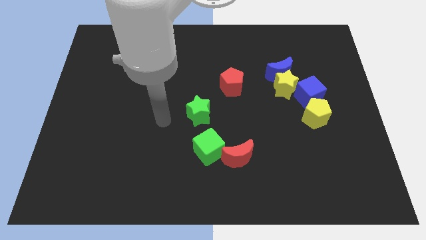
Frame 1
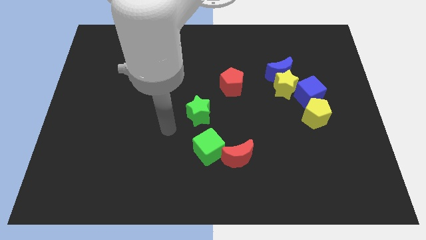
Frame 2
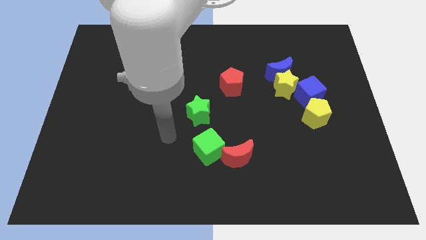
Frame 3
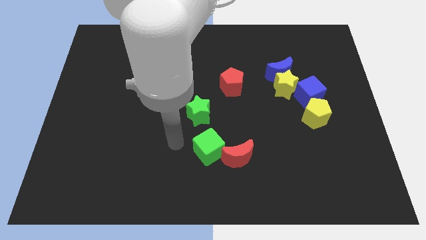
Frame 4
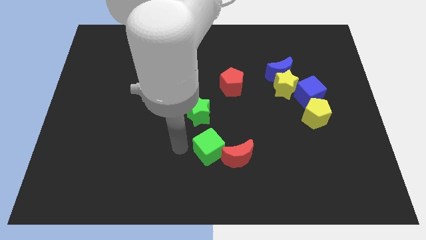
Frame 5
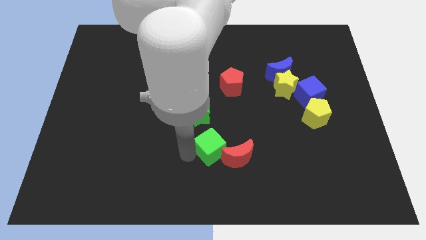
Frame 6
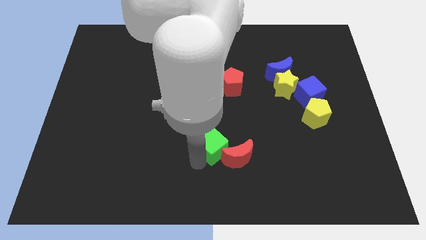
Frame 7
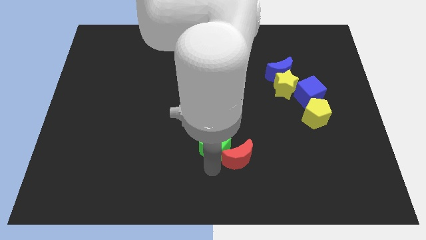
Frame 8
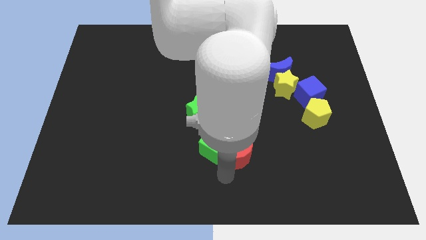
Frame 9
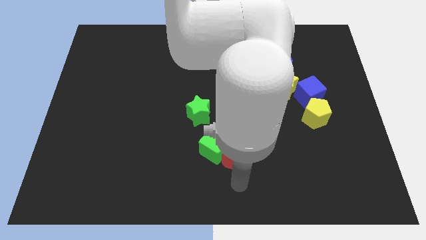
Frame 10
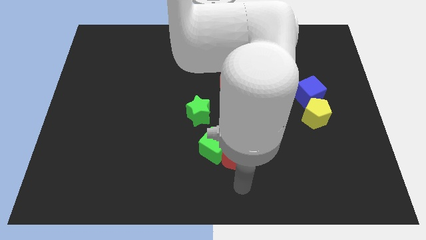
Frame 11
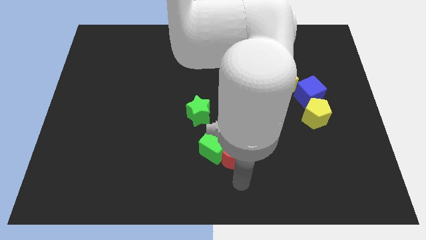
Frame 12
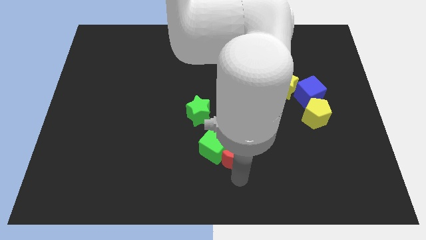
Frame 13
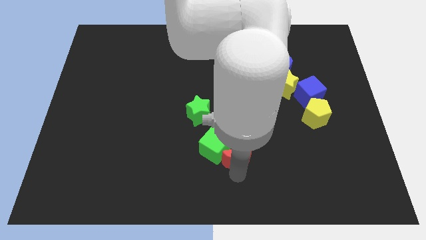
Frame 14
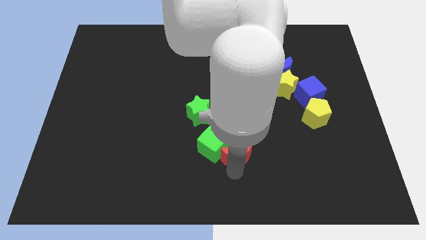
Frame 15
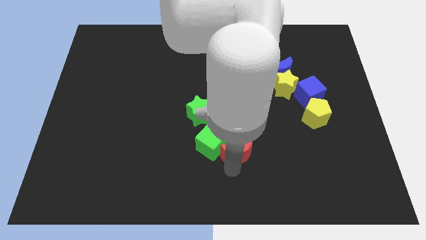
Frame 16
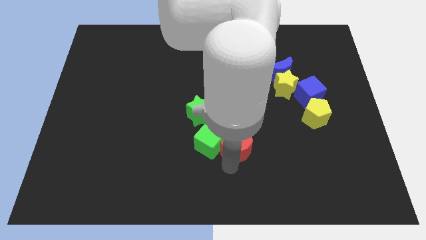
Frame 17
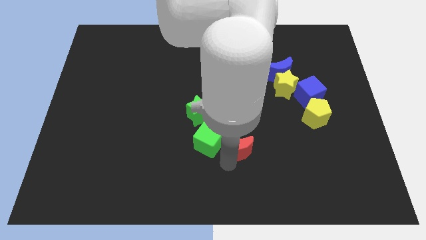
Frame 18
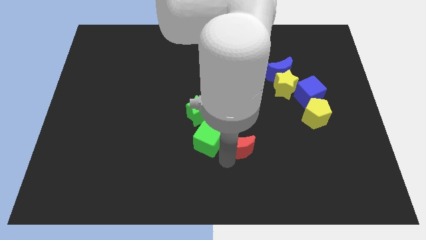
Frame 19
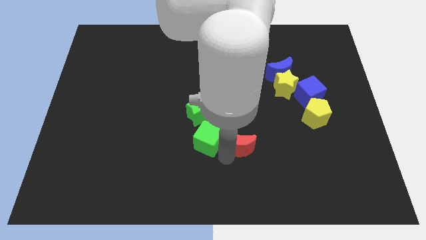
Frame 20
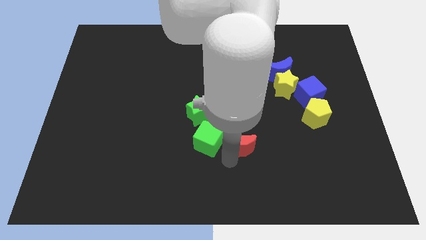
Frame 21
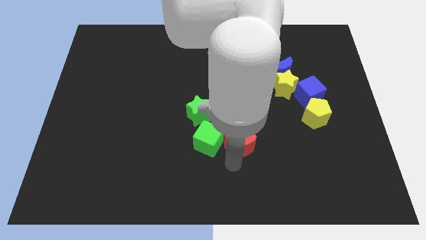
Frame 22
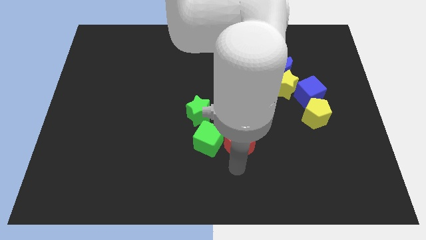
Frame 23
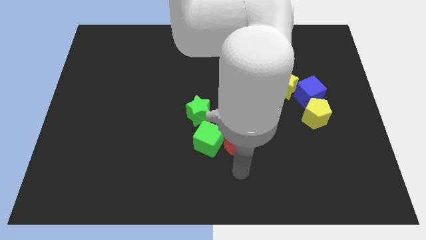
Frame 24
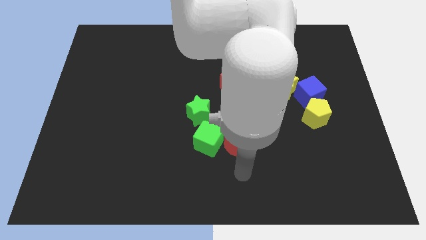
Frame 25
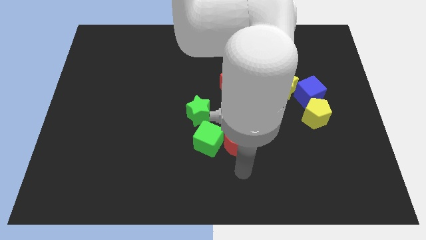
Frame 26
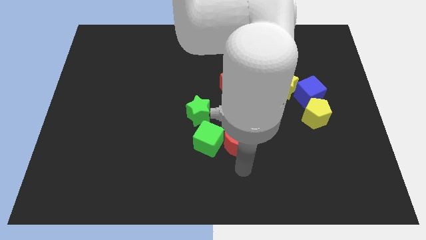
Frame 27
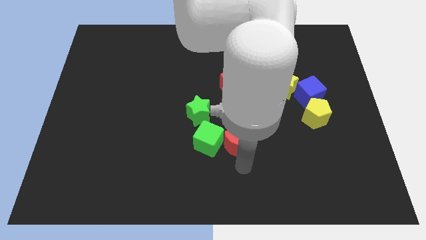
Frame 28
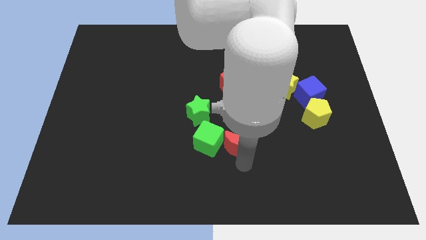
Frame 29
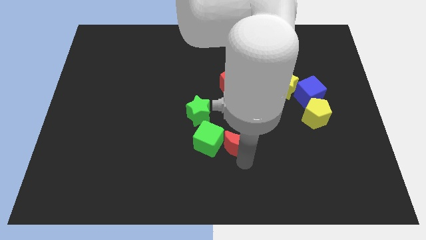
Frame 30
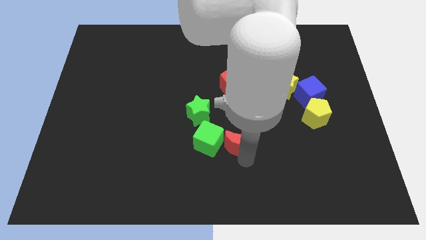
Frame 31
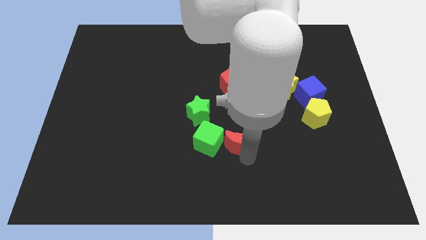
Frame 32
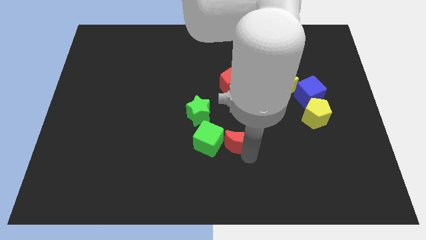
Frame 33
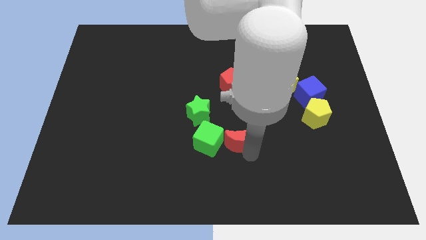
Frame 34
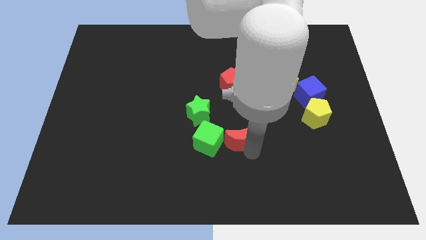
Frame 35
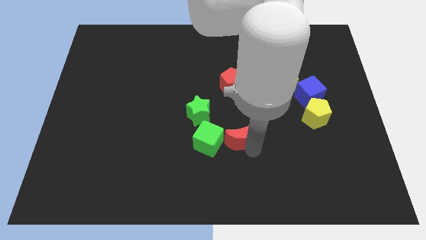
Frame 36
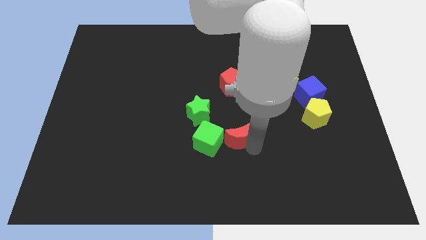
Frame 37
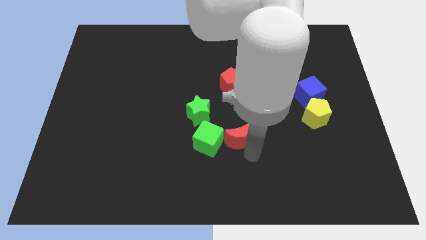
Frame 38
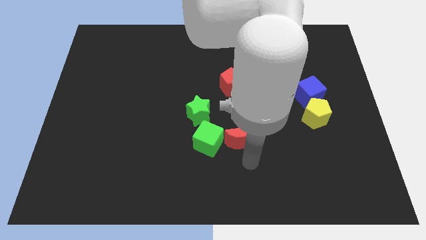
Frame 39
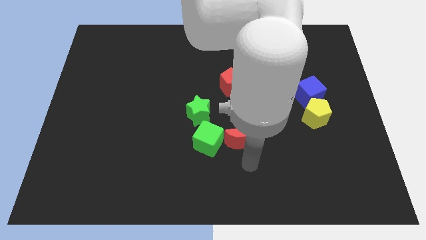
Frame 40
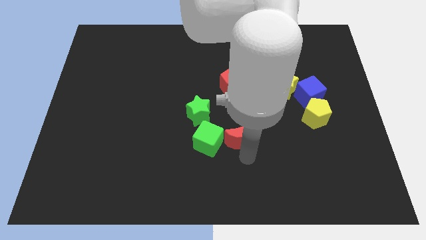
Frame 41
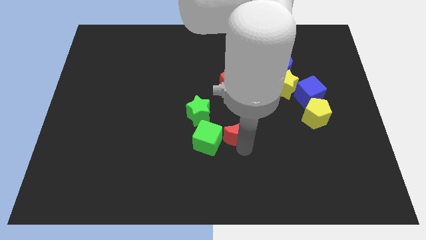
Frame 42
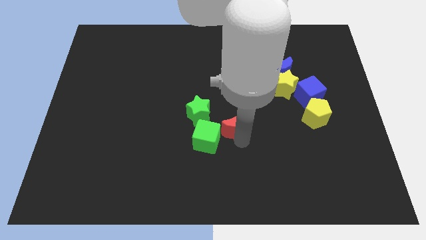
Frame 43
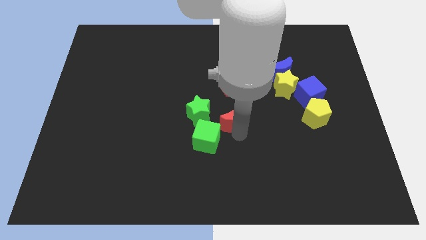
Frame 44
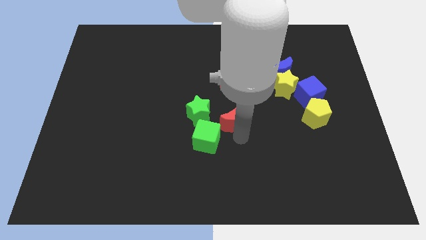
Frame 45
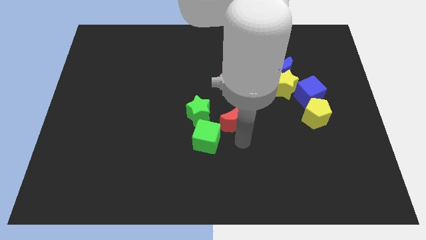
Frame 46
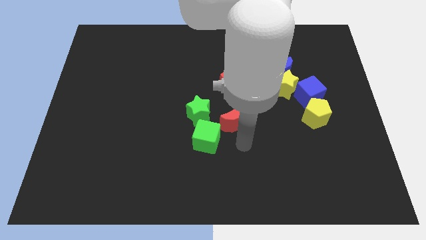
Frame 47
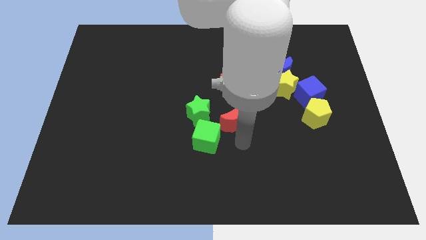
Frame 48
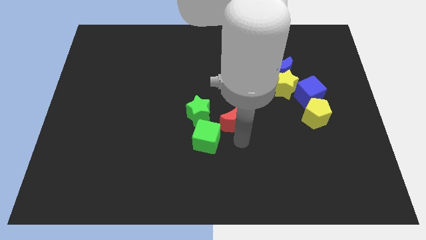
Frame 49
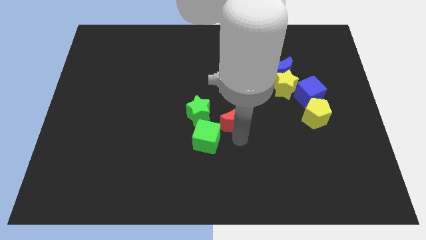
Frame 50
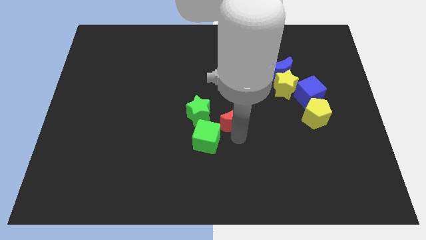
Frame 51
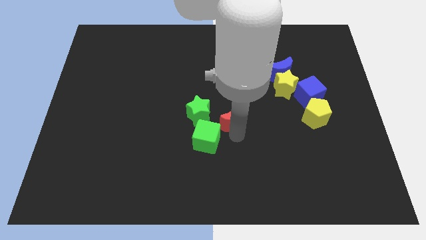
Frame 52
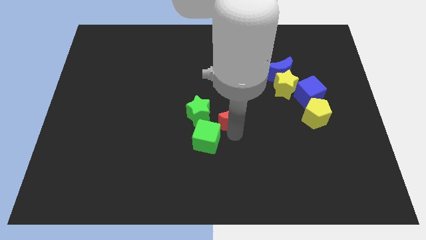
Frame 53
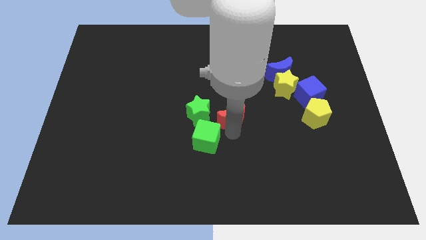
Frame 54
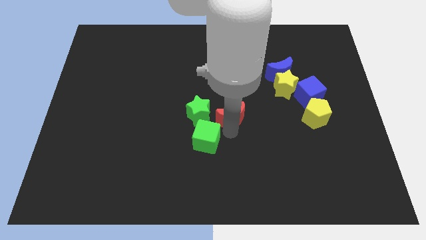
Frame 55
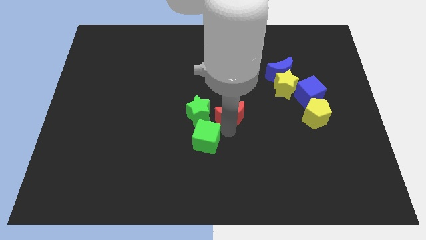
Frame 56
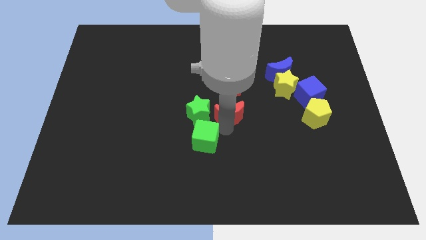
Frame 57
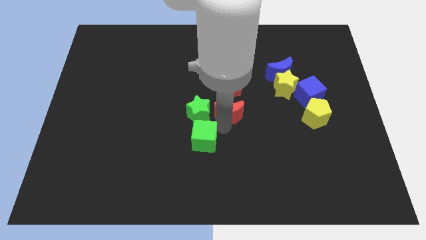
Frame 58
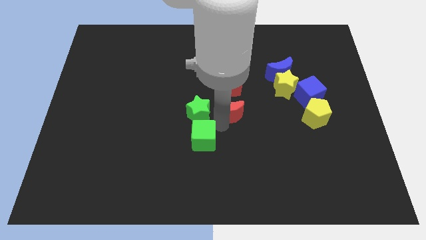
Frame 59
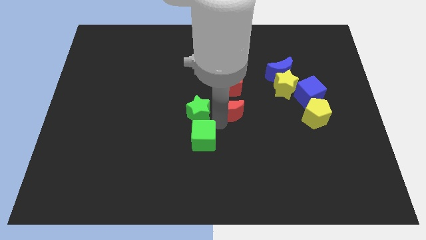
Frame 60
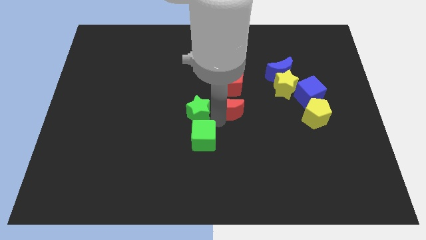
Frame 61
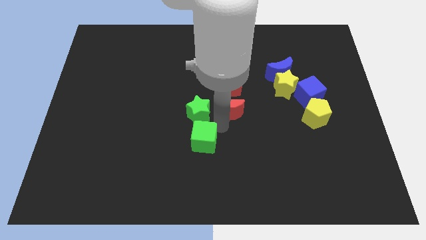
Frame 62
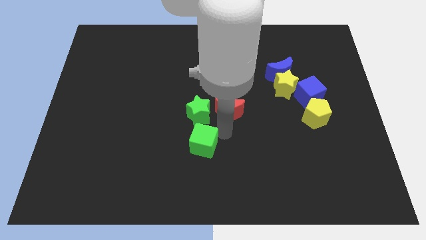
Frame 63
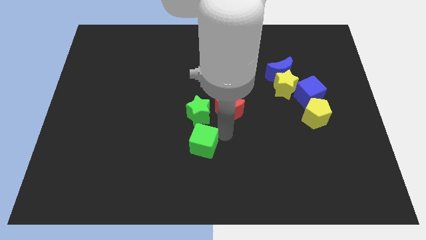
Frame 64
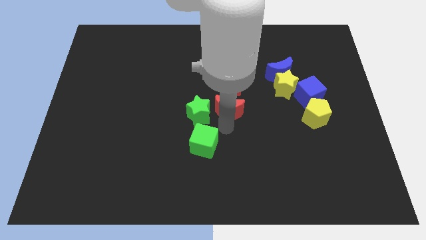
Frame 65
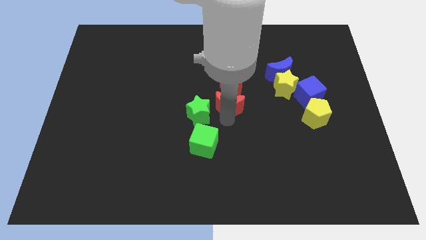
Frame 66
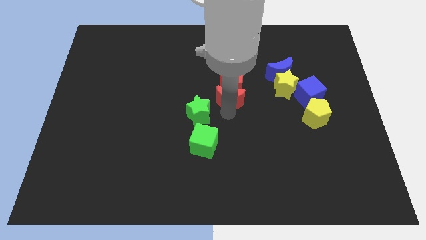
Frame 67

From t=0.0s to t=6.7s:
put the red moon next to the red pentagon

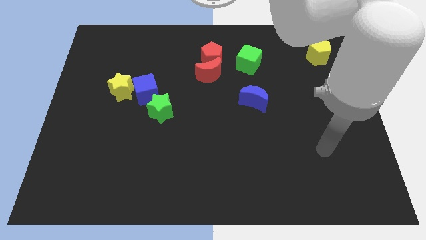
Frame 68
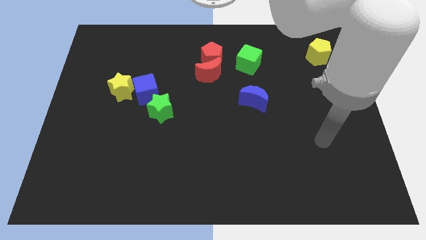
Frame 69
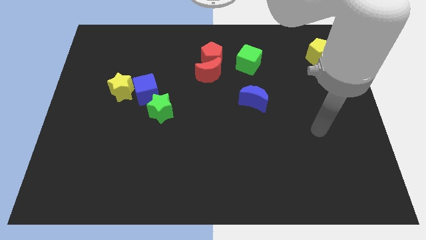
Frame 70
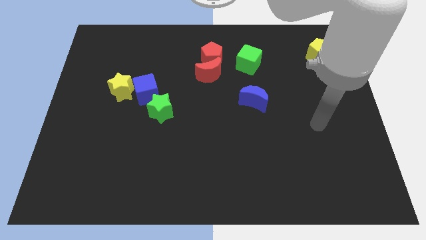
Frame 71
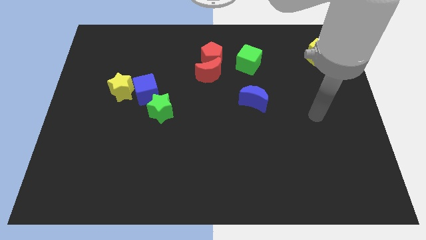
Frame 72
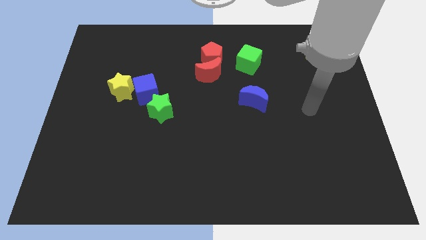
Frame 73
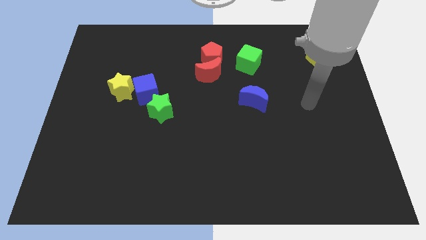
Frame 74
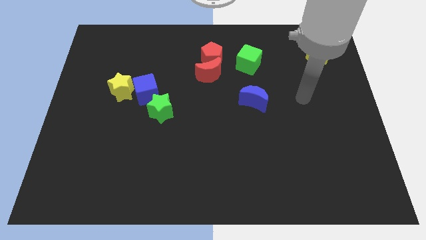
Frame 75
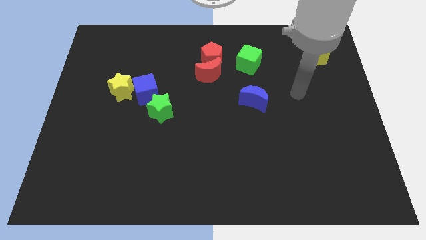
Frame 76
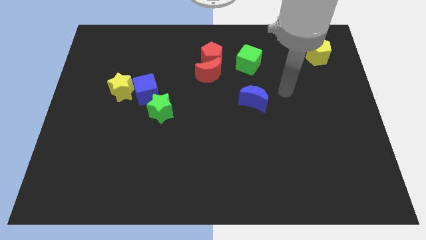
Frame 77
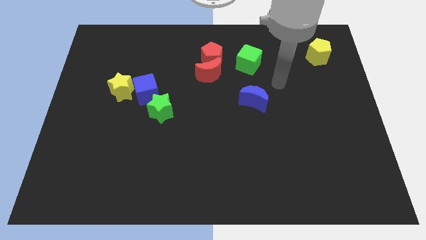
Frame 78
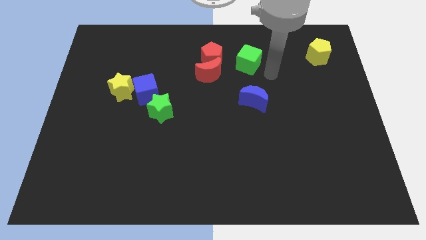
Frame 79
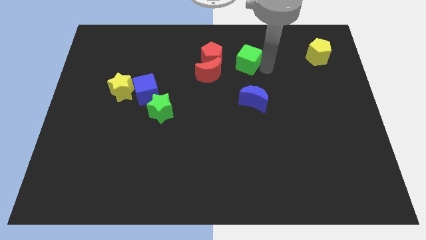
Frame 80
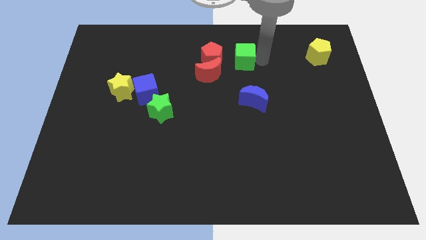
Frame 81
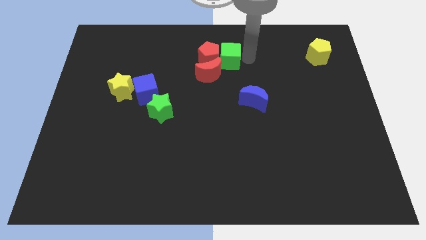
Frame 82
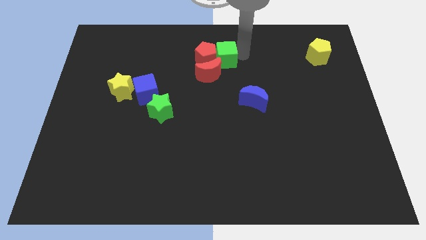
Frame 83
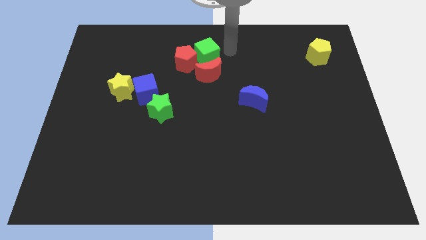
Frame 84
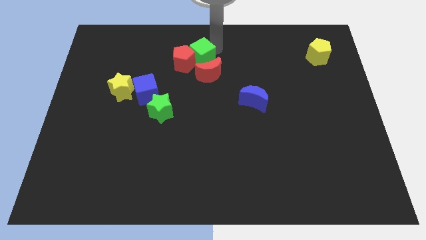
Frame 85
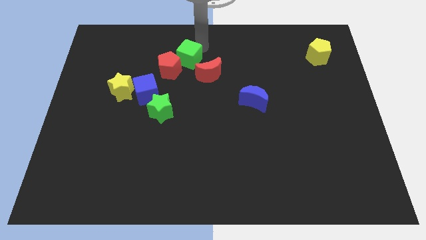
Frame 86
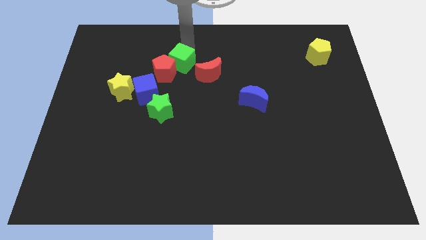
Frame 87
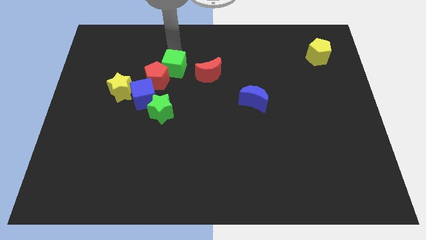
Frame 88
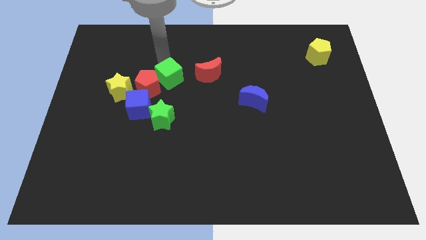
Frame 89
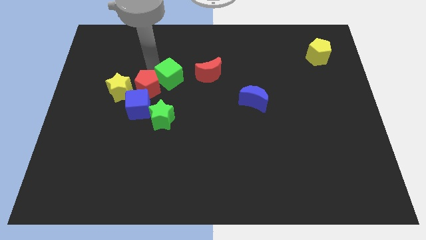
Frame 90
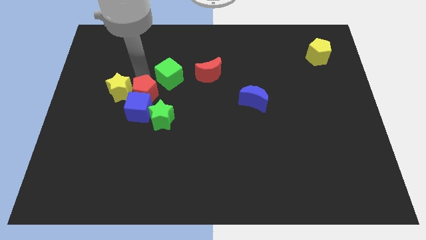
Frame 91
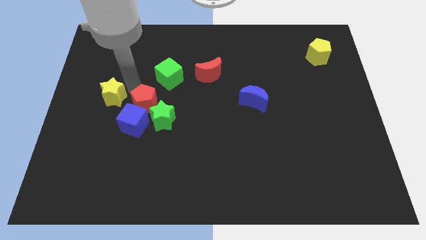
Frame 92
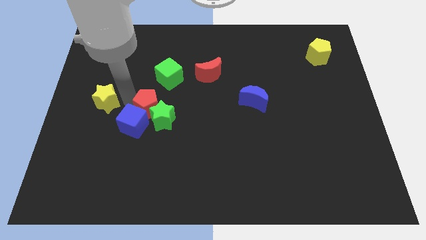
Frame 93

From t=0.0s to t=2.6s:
slide the red pentagon towards the green star
